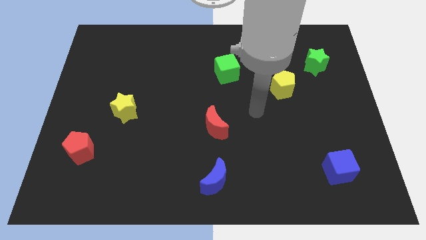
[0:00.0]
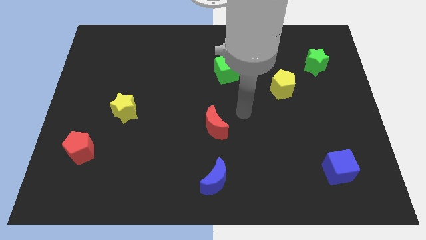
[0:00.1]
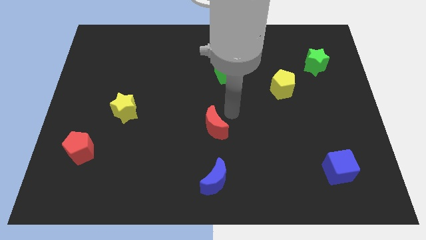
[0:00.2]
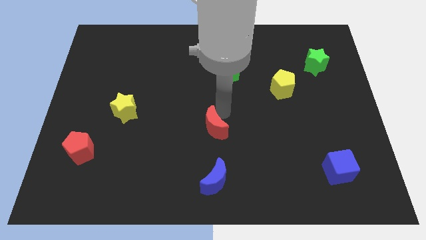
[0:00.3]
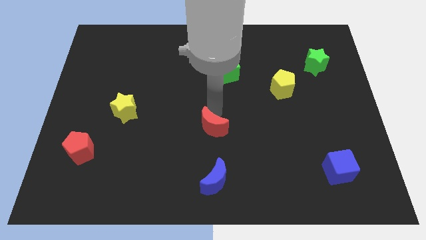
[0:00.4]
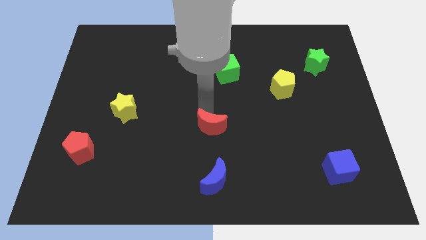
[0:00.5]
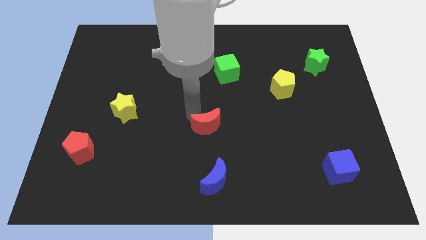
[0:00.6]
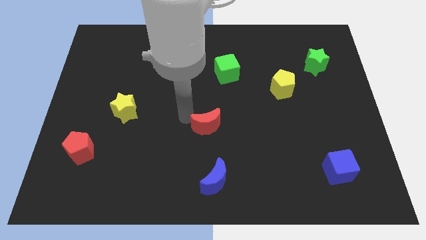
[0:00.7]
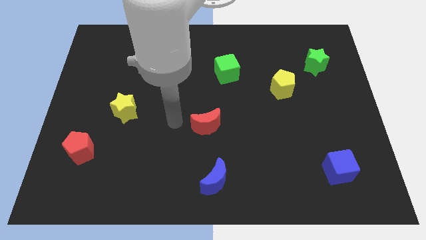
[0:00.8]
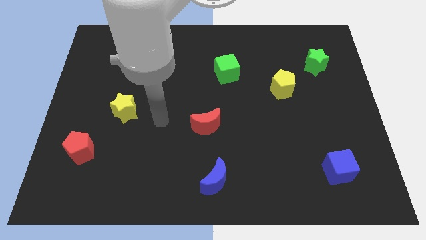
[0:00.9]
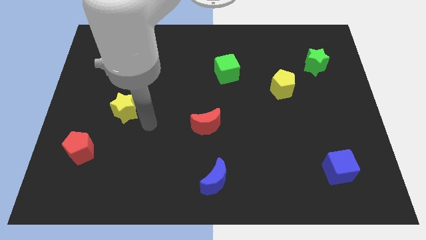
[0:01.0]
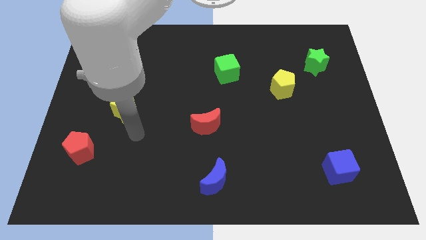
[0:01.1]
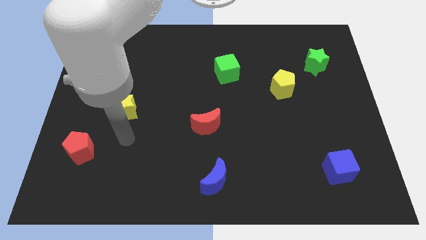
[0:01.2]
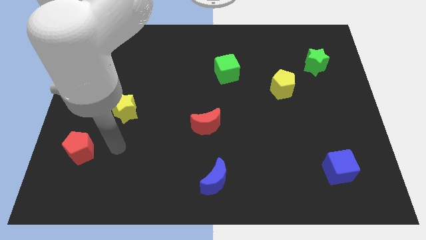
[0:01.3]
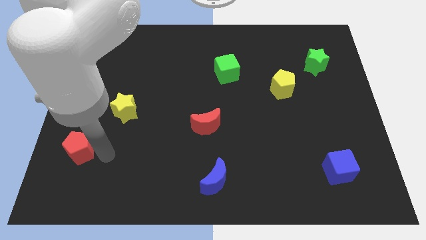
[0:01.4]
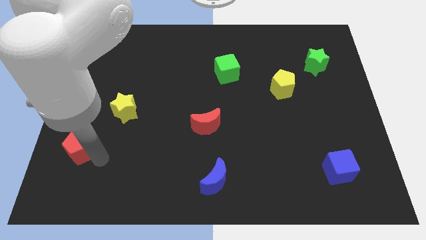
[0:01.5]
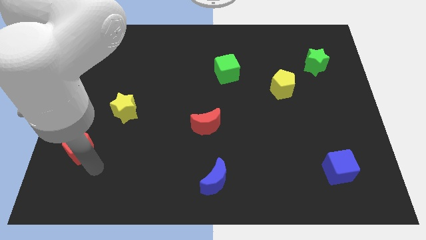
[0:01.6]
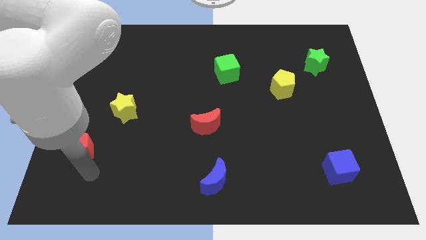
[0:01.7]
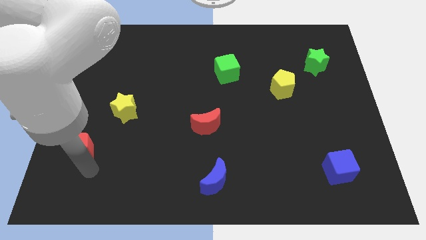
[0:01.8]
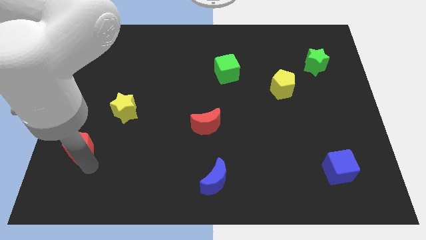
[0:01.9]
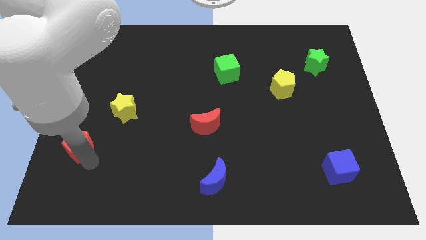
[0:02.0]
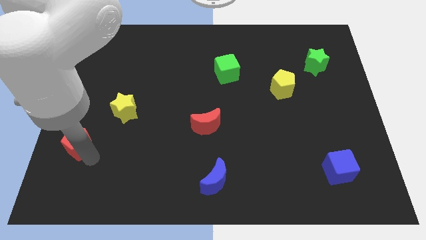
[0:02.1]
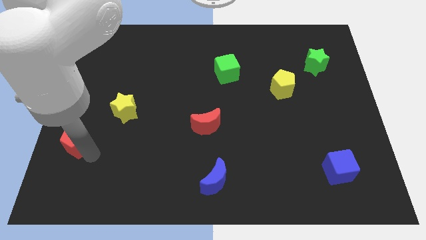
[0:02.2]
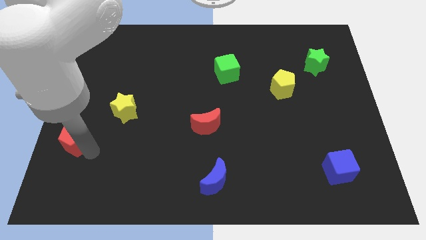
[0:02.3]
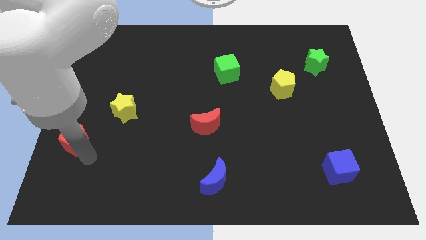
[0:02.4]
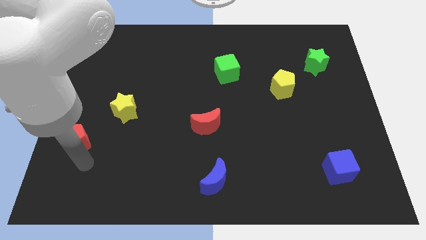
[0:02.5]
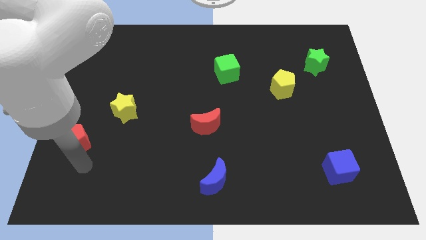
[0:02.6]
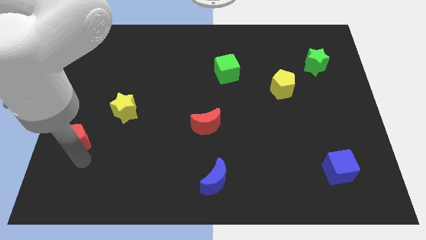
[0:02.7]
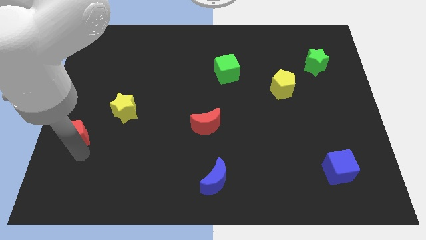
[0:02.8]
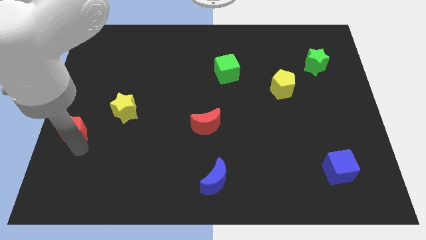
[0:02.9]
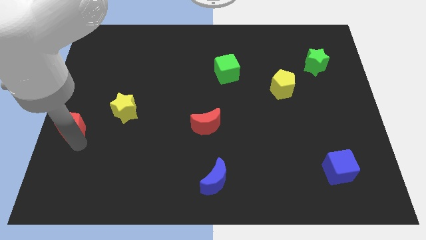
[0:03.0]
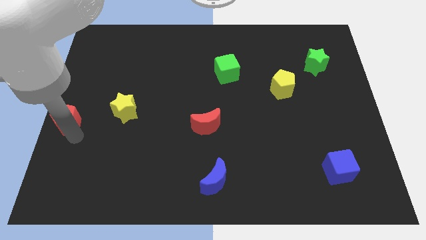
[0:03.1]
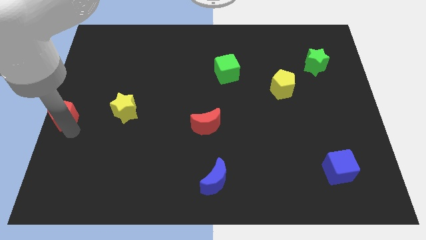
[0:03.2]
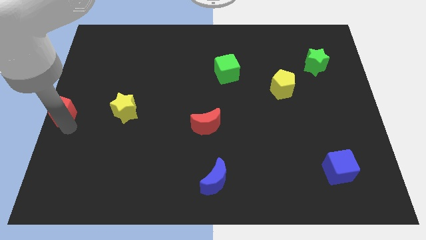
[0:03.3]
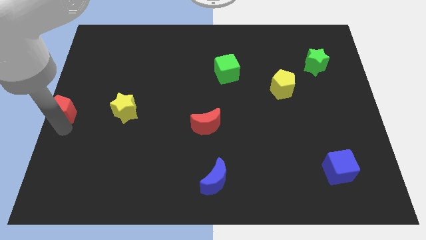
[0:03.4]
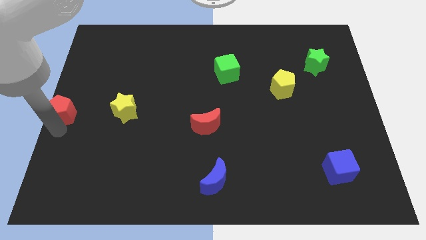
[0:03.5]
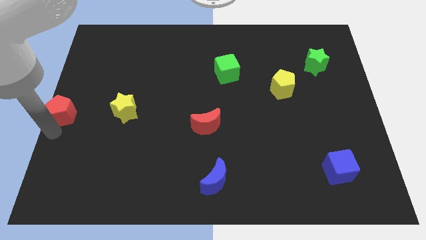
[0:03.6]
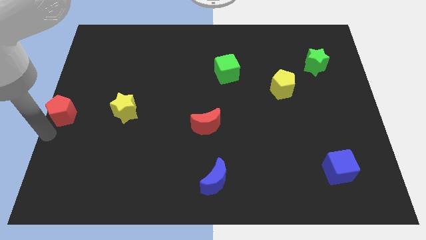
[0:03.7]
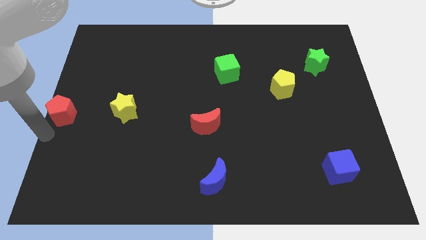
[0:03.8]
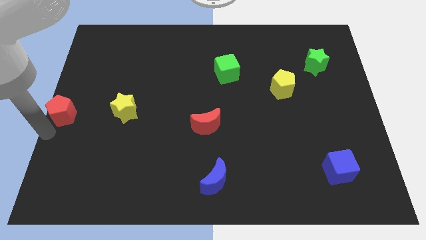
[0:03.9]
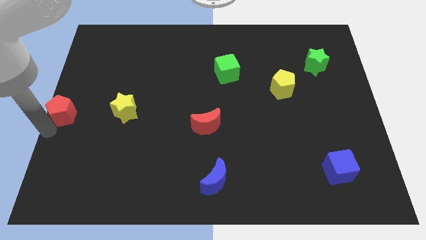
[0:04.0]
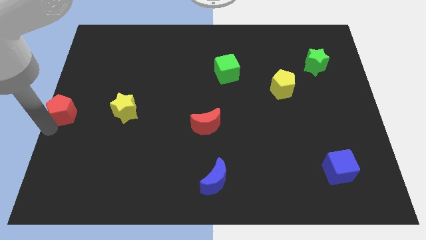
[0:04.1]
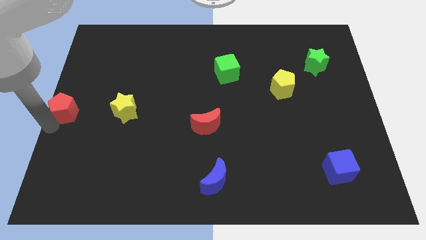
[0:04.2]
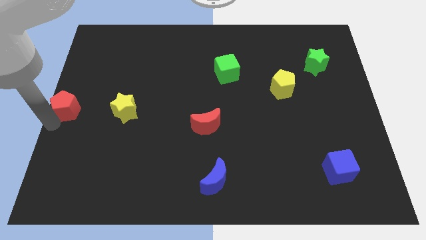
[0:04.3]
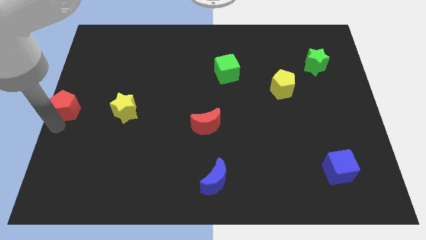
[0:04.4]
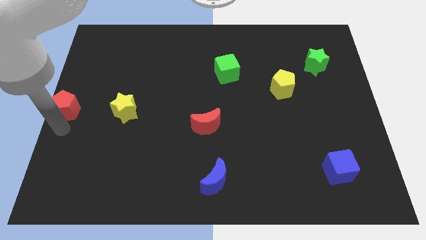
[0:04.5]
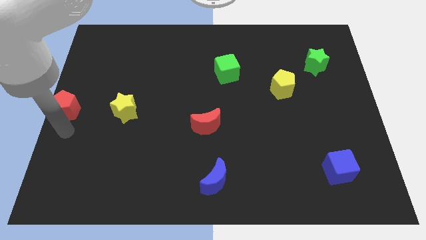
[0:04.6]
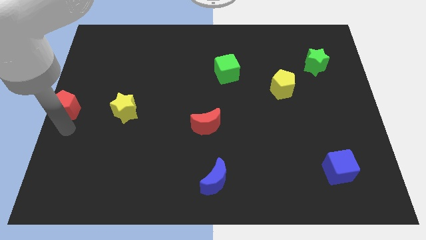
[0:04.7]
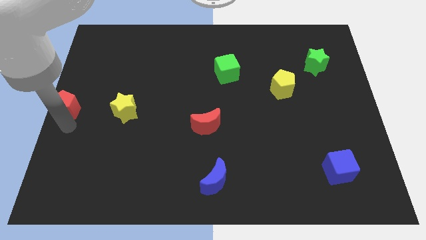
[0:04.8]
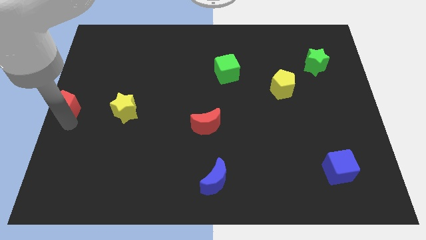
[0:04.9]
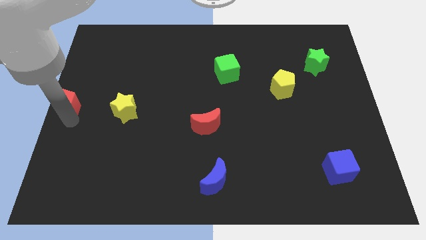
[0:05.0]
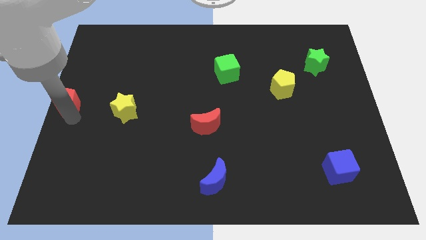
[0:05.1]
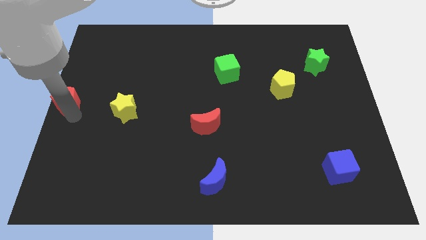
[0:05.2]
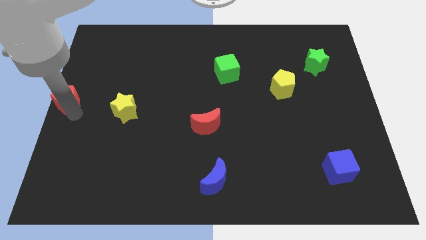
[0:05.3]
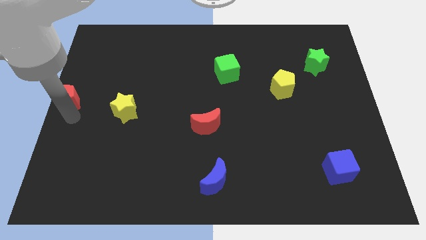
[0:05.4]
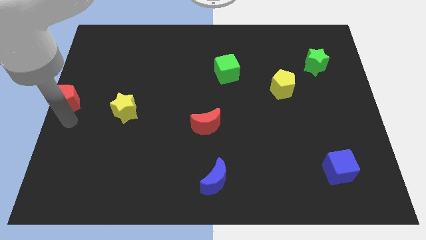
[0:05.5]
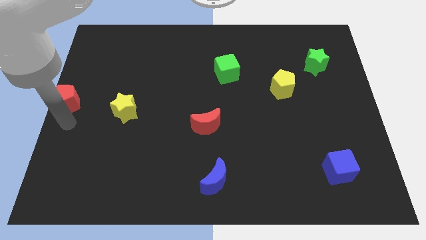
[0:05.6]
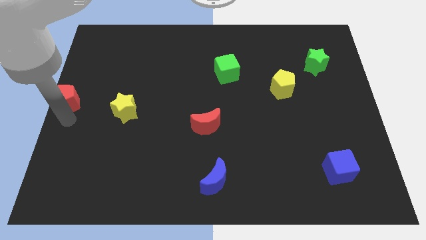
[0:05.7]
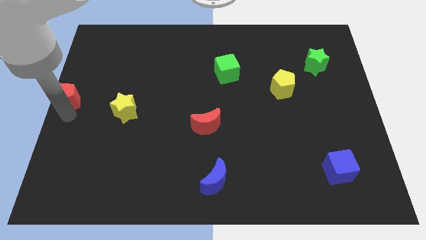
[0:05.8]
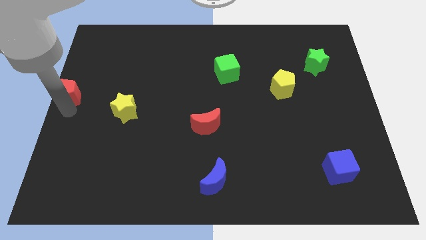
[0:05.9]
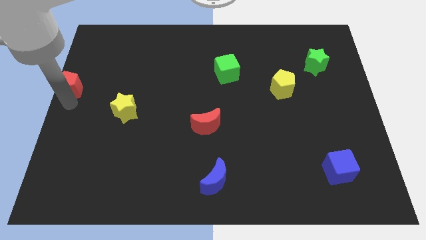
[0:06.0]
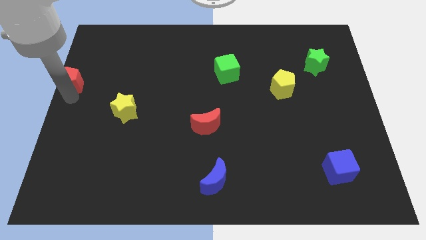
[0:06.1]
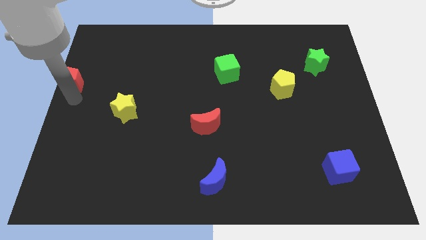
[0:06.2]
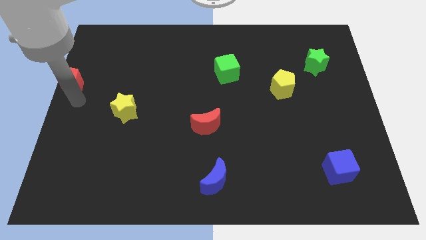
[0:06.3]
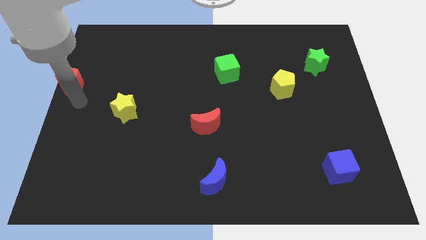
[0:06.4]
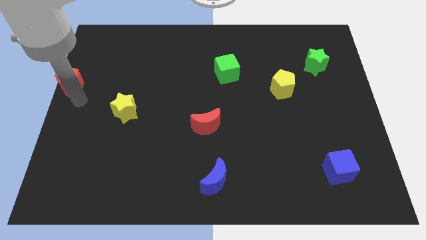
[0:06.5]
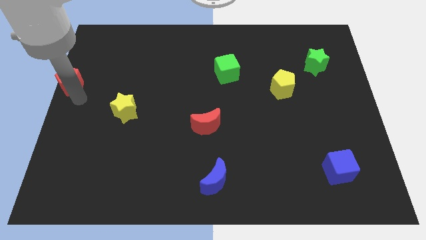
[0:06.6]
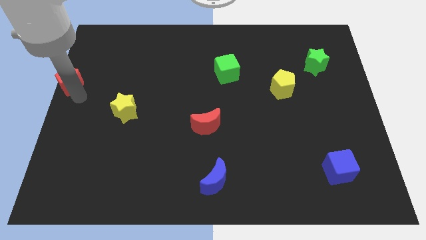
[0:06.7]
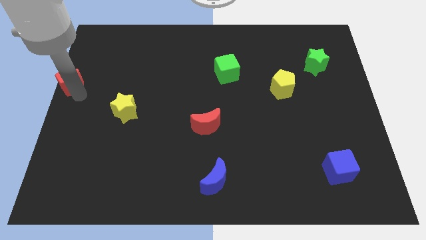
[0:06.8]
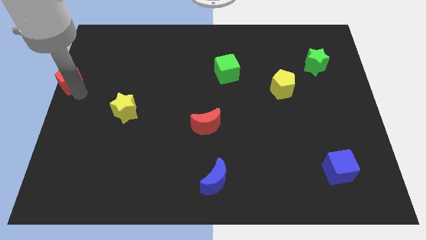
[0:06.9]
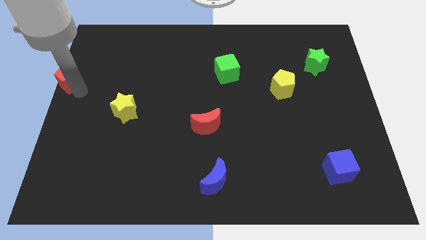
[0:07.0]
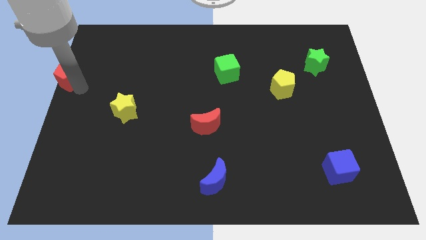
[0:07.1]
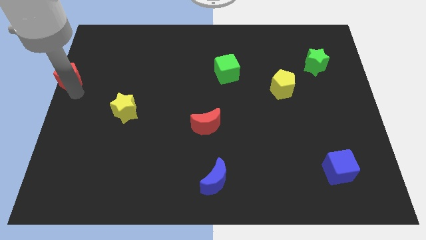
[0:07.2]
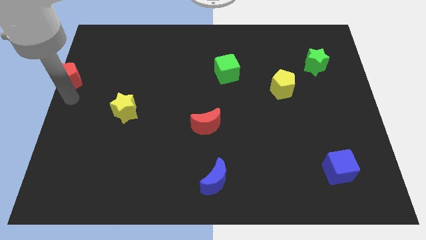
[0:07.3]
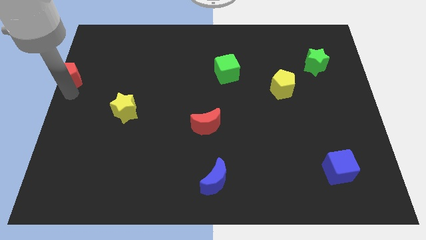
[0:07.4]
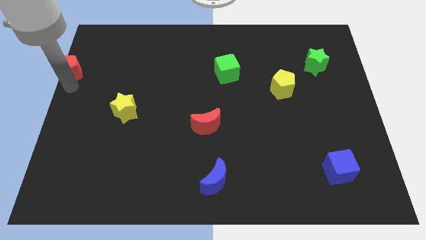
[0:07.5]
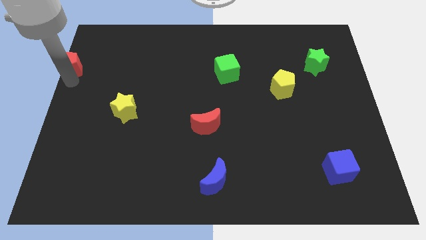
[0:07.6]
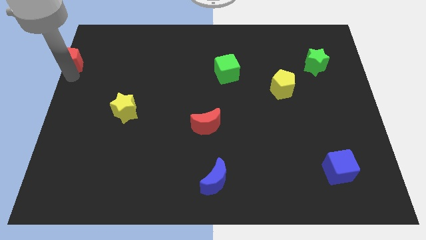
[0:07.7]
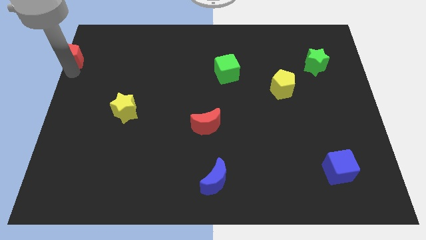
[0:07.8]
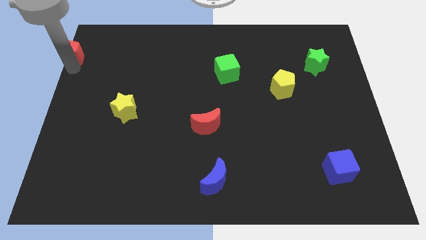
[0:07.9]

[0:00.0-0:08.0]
push the red pentagon to the top left corner
